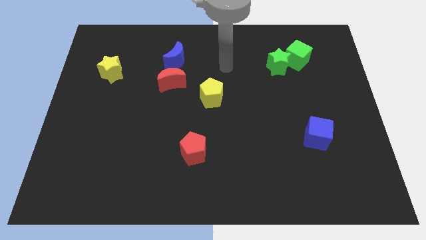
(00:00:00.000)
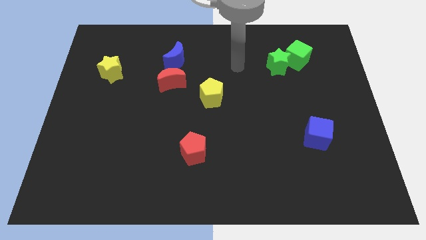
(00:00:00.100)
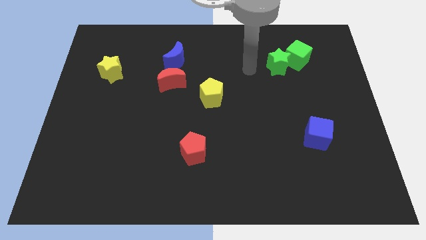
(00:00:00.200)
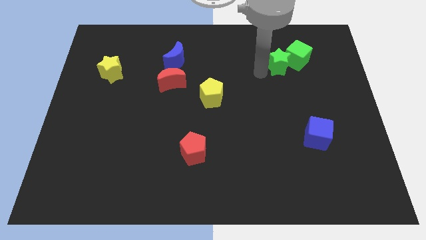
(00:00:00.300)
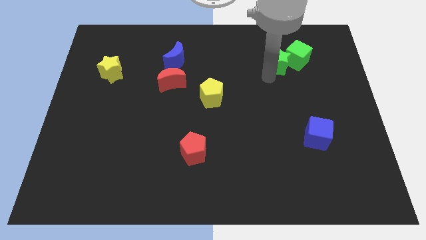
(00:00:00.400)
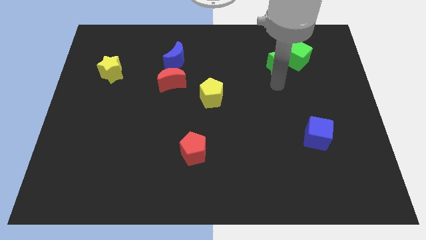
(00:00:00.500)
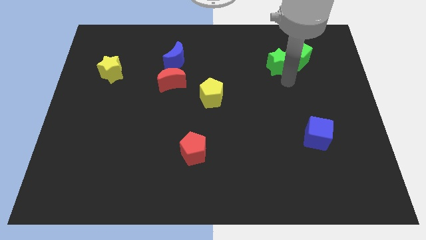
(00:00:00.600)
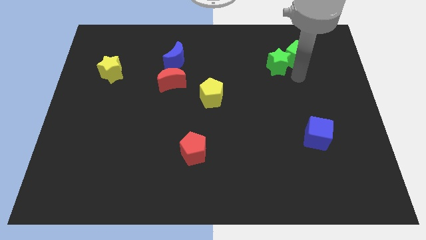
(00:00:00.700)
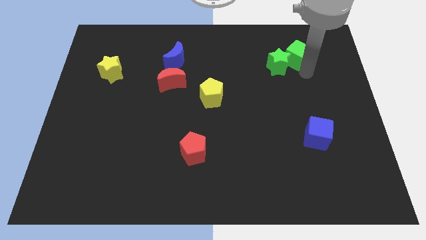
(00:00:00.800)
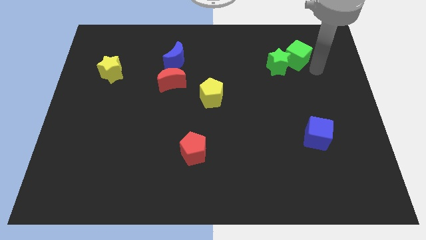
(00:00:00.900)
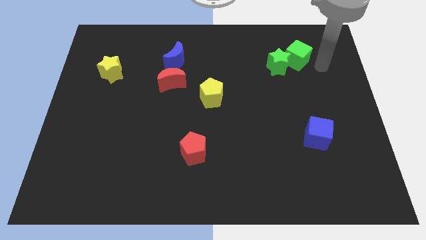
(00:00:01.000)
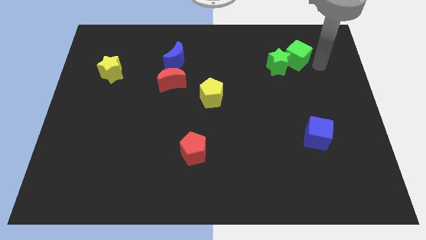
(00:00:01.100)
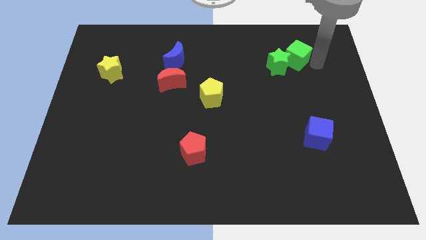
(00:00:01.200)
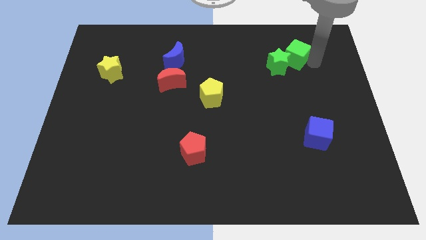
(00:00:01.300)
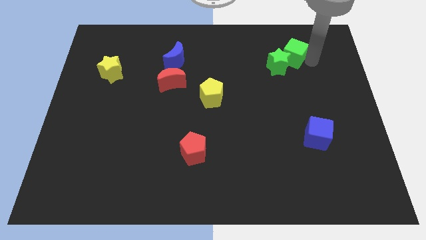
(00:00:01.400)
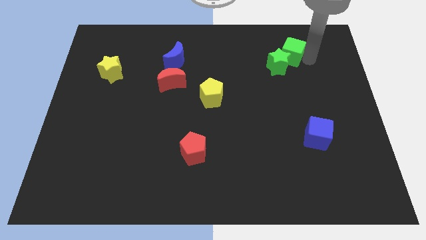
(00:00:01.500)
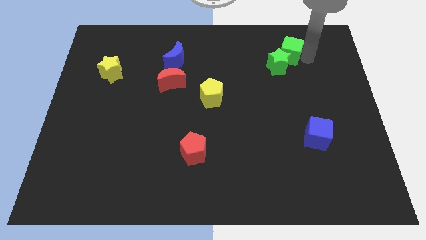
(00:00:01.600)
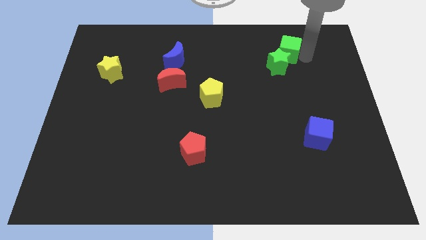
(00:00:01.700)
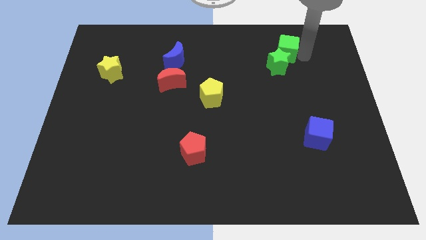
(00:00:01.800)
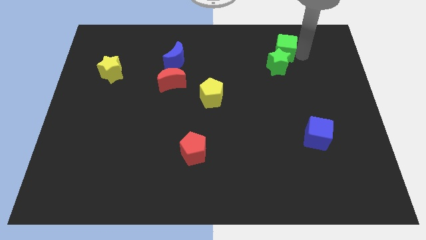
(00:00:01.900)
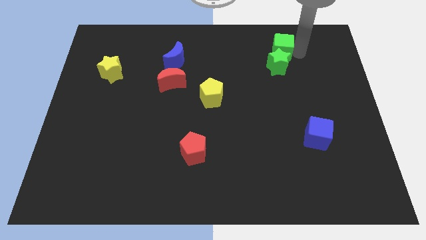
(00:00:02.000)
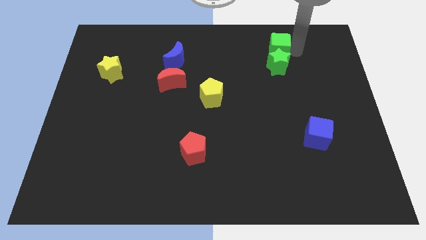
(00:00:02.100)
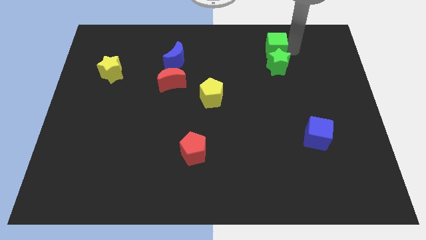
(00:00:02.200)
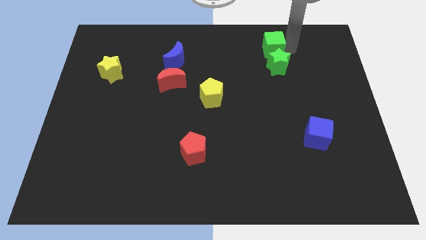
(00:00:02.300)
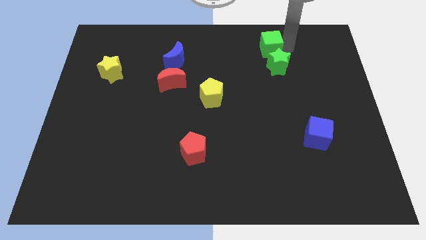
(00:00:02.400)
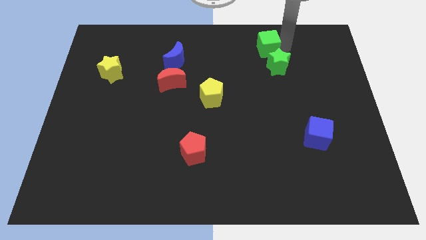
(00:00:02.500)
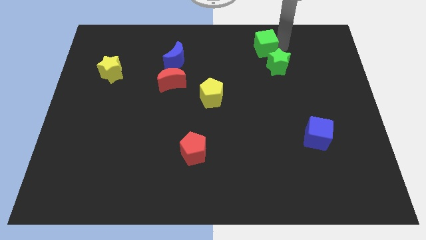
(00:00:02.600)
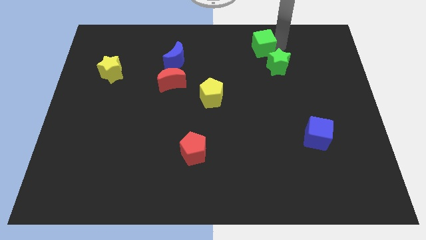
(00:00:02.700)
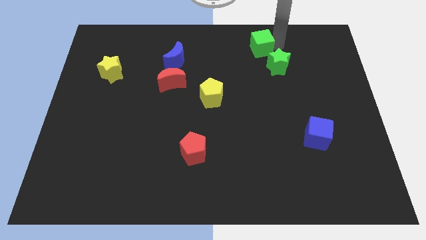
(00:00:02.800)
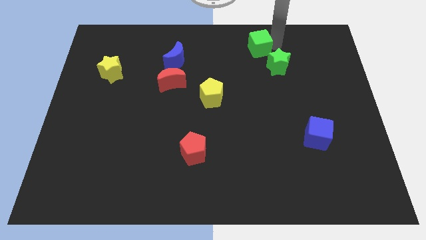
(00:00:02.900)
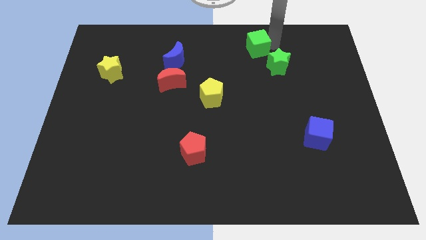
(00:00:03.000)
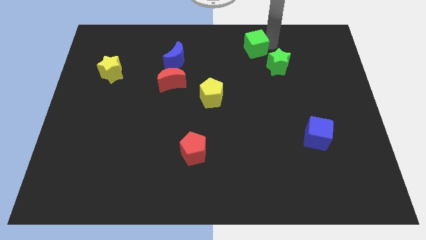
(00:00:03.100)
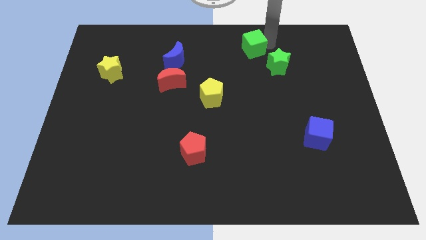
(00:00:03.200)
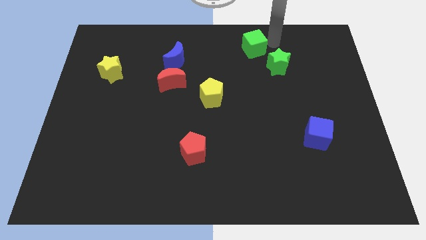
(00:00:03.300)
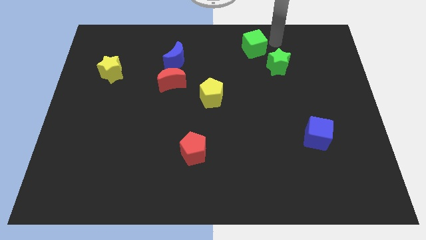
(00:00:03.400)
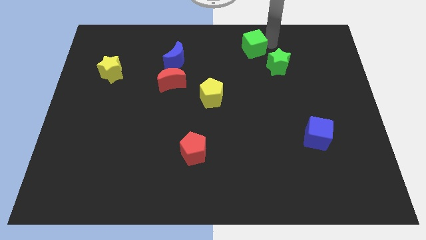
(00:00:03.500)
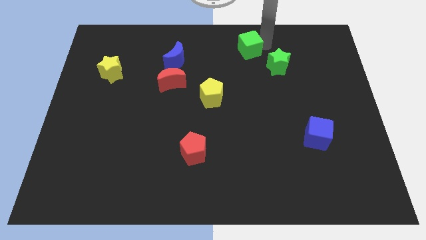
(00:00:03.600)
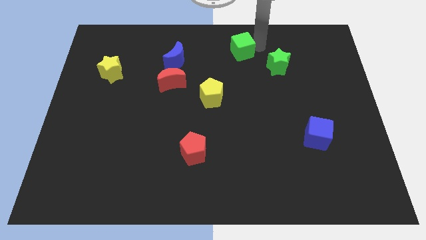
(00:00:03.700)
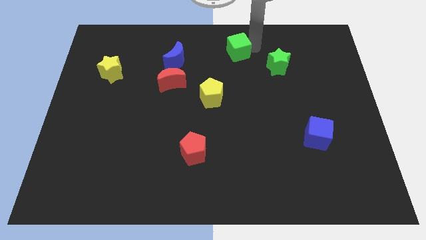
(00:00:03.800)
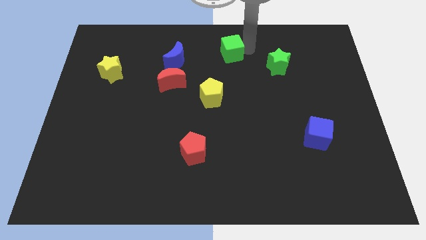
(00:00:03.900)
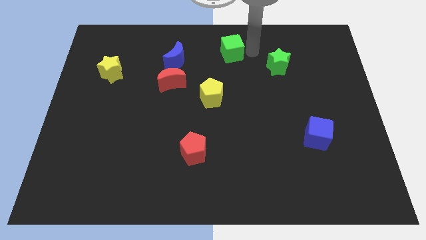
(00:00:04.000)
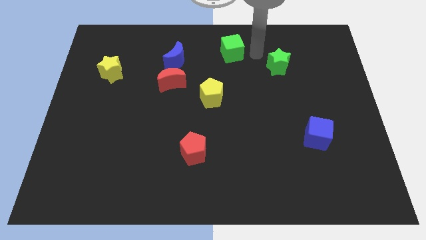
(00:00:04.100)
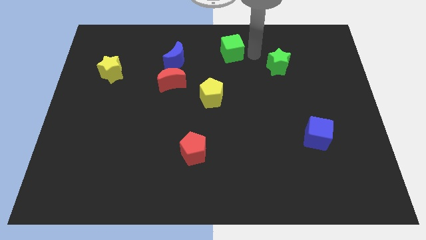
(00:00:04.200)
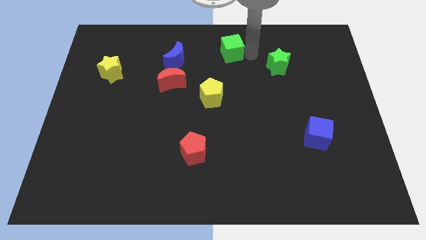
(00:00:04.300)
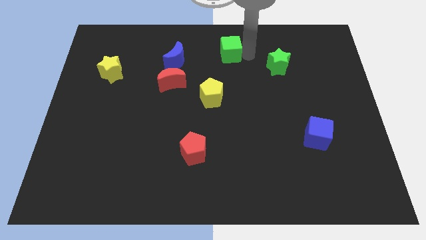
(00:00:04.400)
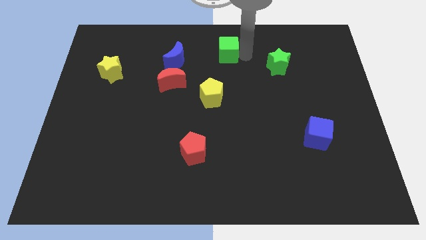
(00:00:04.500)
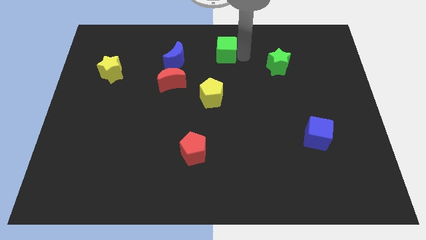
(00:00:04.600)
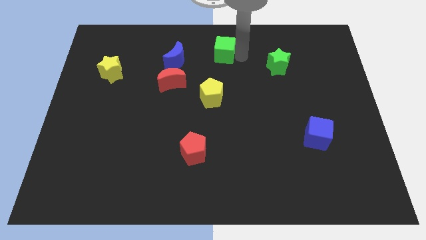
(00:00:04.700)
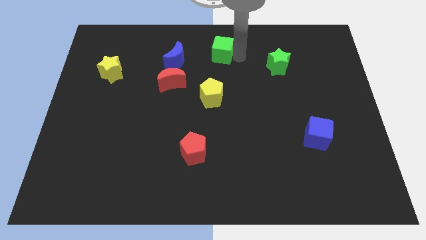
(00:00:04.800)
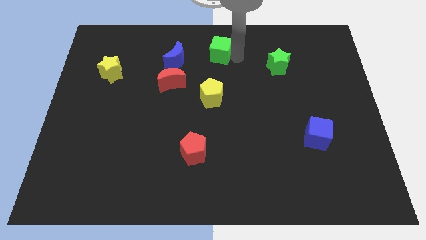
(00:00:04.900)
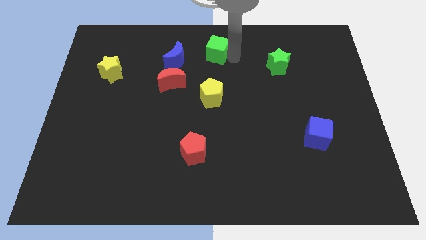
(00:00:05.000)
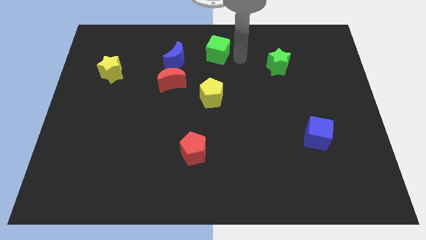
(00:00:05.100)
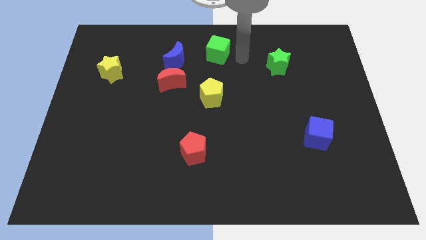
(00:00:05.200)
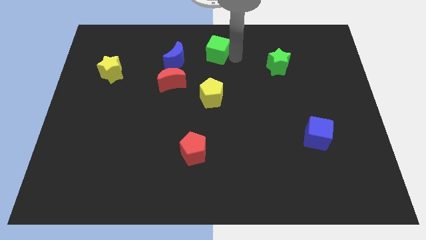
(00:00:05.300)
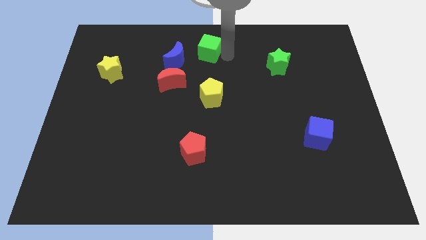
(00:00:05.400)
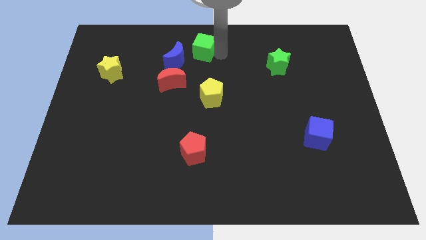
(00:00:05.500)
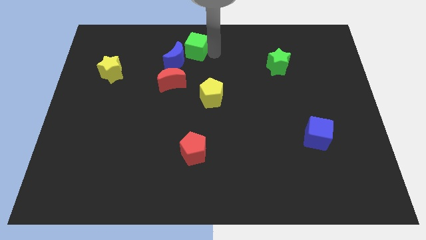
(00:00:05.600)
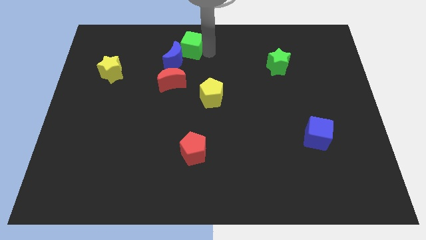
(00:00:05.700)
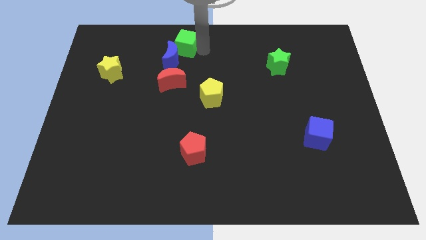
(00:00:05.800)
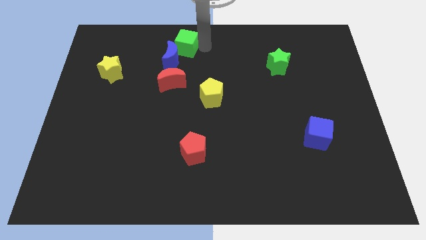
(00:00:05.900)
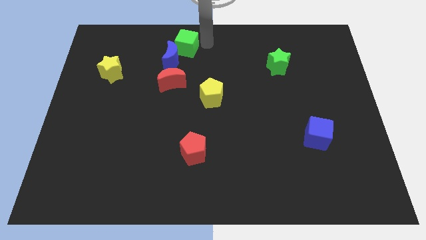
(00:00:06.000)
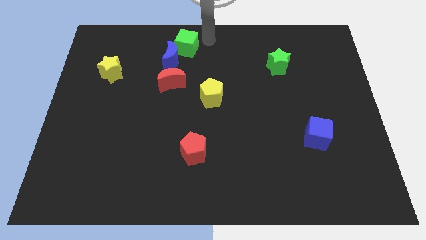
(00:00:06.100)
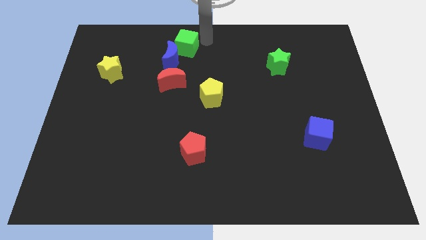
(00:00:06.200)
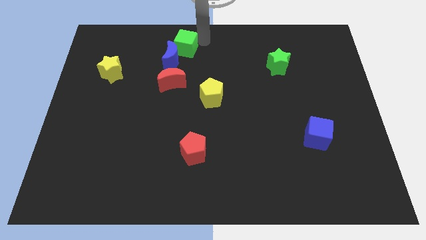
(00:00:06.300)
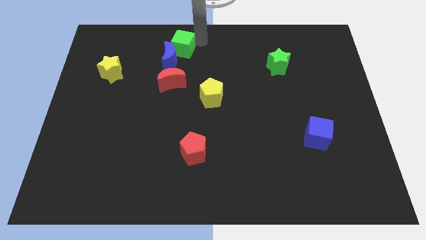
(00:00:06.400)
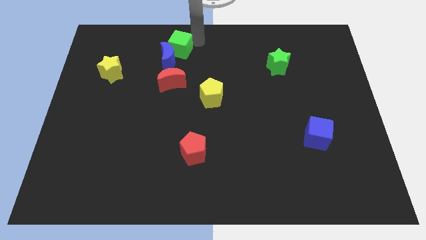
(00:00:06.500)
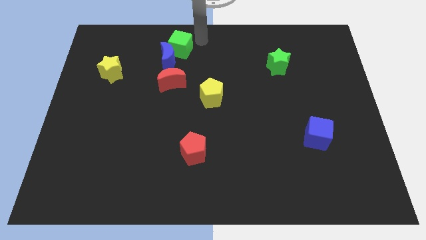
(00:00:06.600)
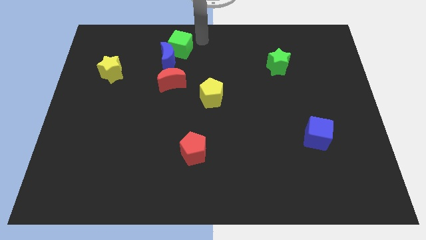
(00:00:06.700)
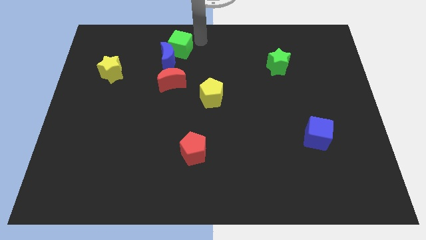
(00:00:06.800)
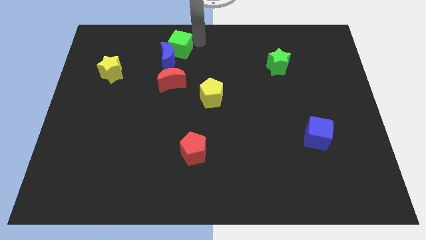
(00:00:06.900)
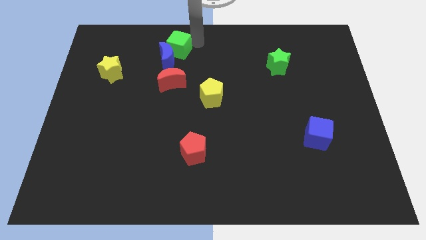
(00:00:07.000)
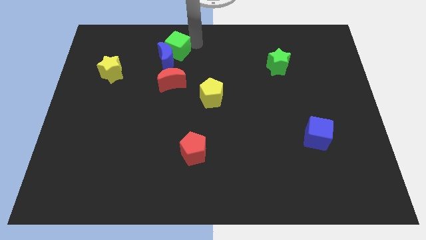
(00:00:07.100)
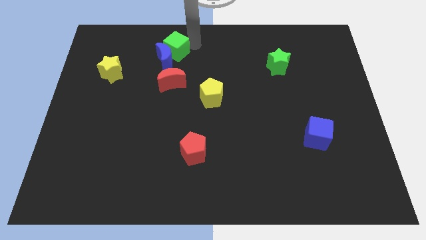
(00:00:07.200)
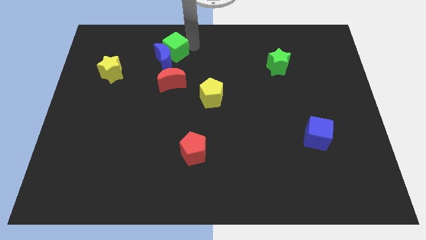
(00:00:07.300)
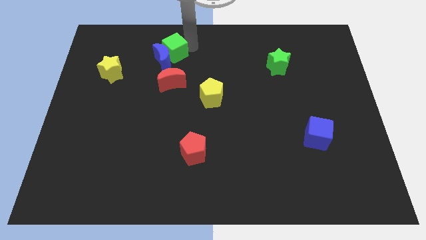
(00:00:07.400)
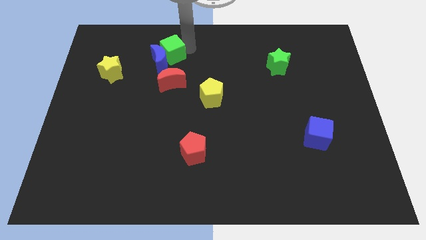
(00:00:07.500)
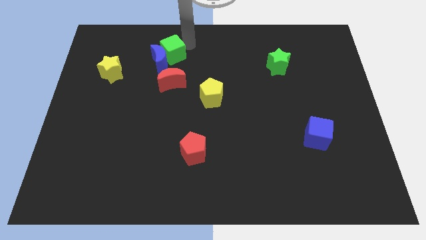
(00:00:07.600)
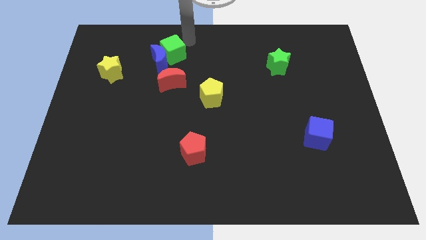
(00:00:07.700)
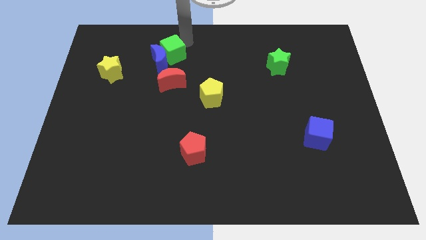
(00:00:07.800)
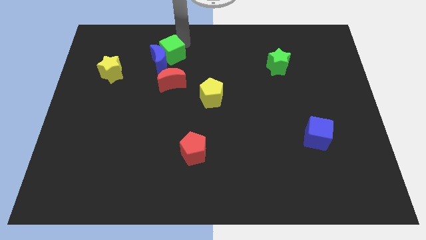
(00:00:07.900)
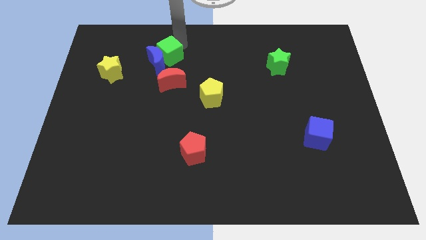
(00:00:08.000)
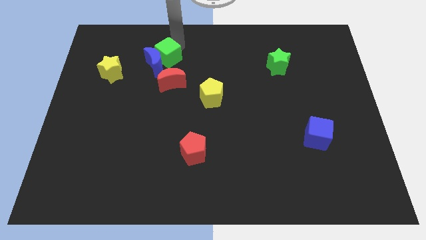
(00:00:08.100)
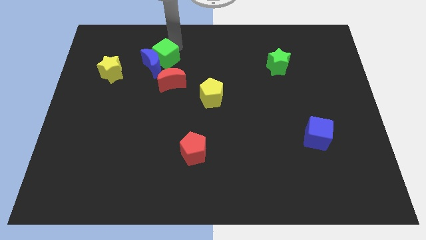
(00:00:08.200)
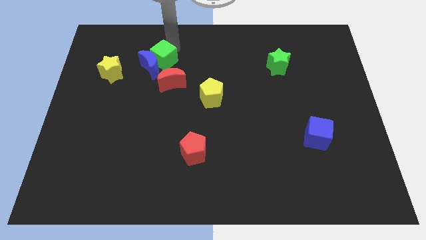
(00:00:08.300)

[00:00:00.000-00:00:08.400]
move the green cube to the right side of the yellow star
